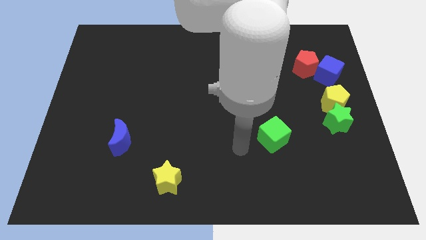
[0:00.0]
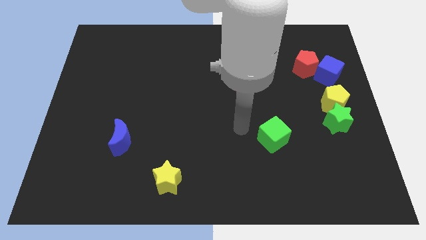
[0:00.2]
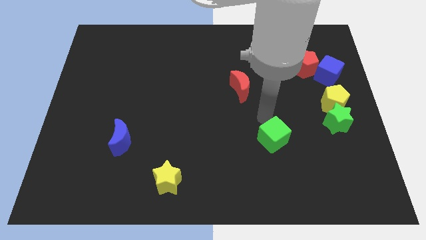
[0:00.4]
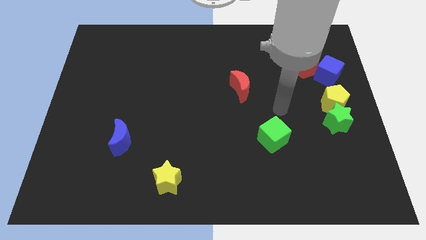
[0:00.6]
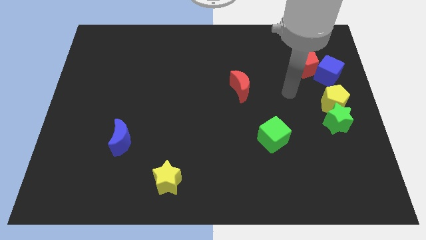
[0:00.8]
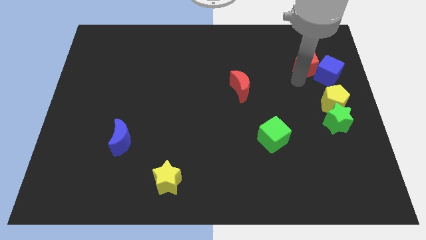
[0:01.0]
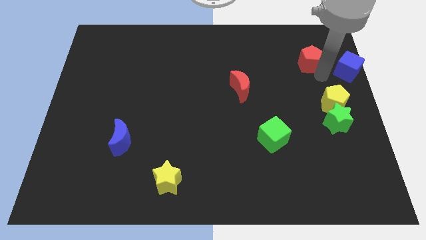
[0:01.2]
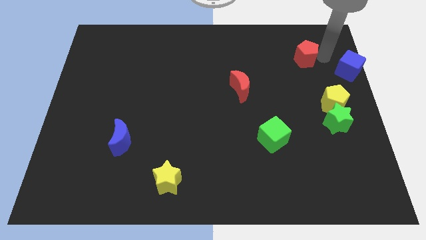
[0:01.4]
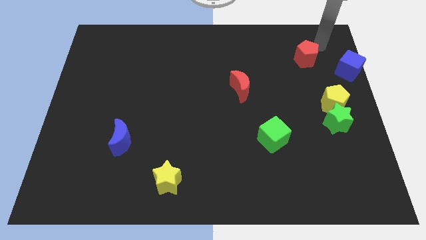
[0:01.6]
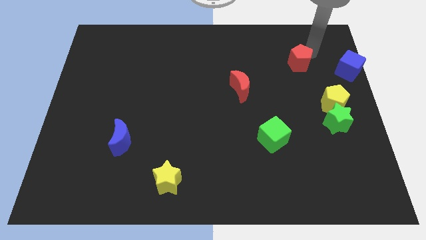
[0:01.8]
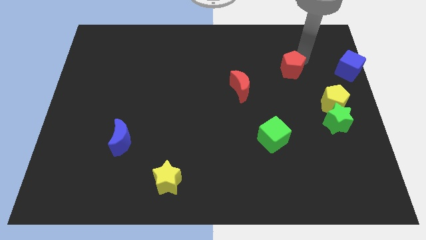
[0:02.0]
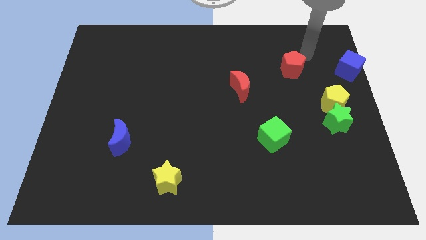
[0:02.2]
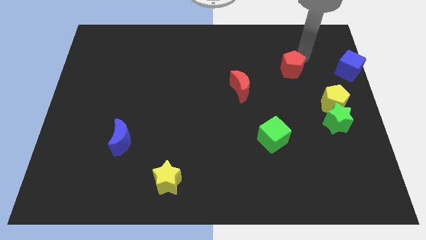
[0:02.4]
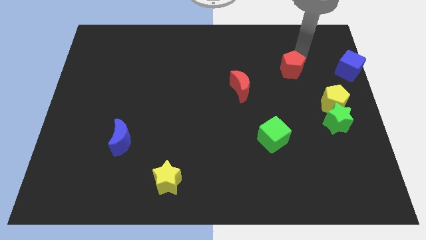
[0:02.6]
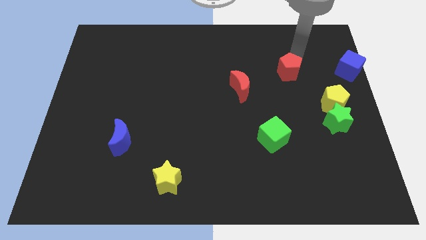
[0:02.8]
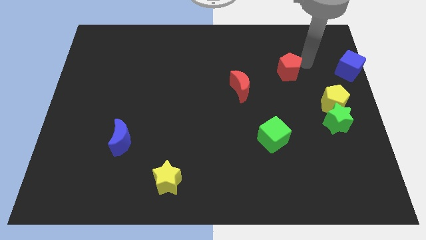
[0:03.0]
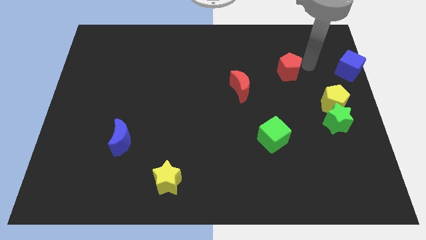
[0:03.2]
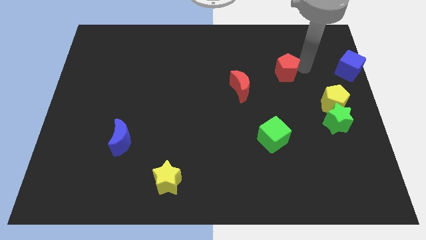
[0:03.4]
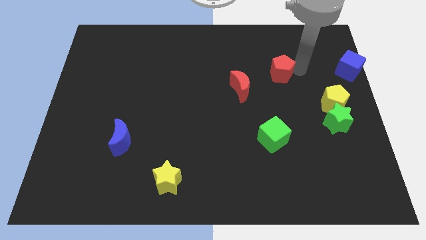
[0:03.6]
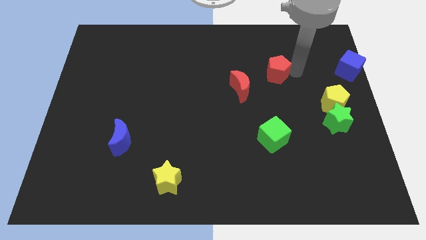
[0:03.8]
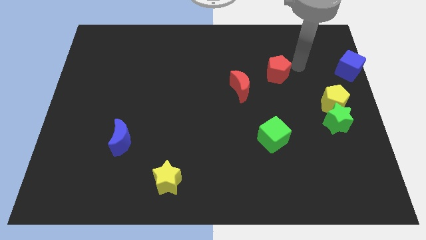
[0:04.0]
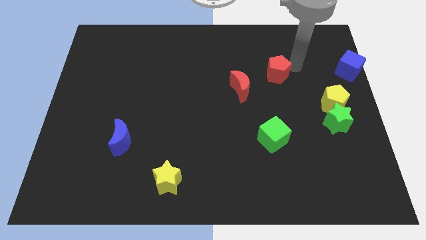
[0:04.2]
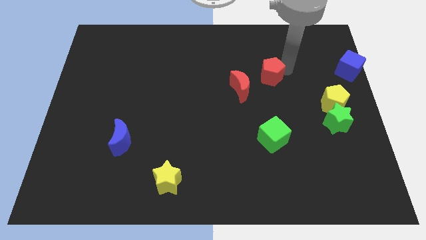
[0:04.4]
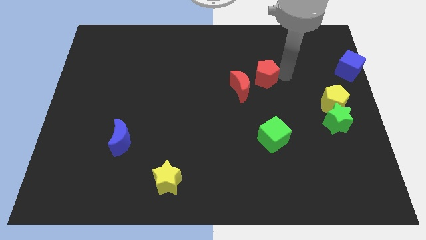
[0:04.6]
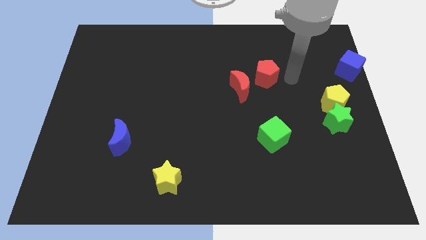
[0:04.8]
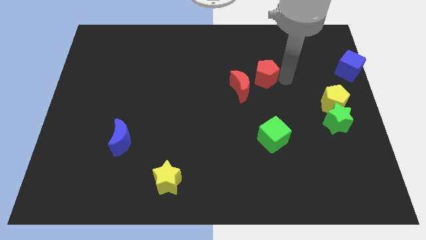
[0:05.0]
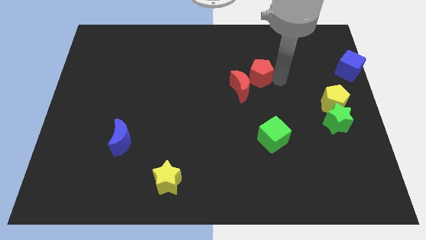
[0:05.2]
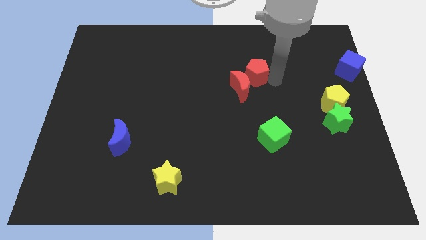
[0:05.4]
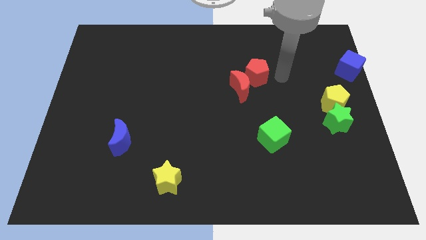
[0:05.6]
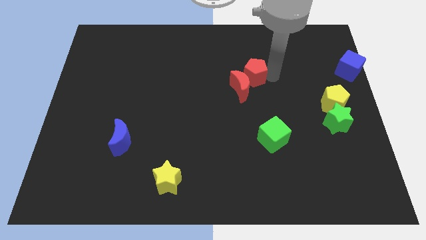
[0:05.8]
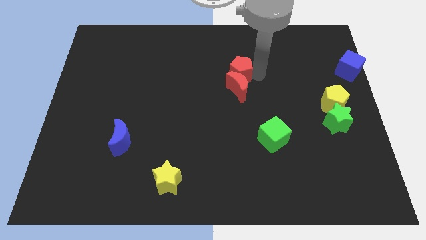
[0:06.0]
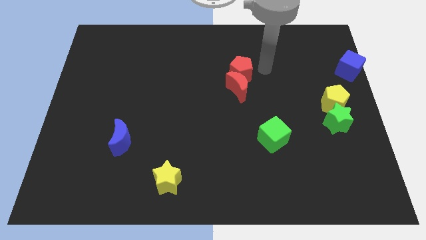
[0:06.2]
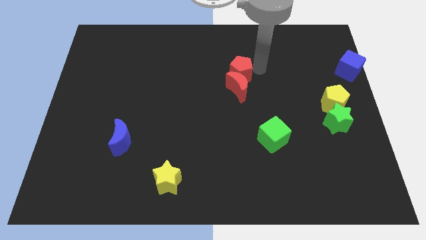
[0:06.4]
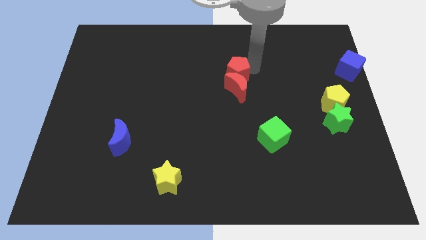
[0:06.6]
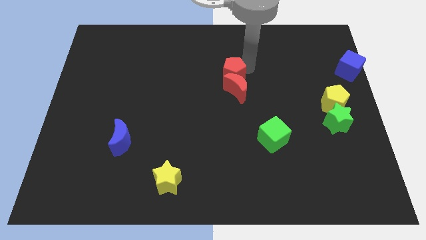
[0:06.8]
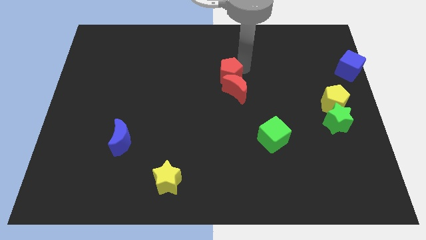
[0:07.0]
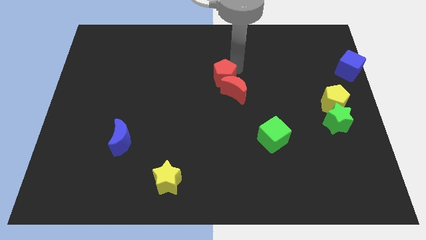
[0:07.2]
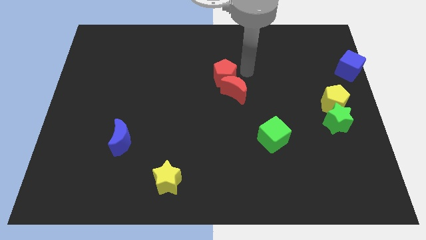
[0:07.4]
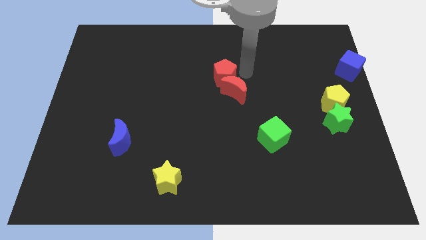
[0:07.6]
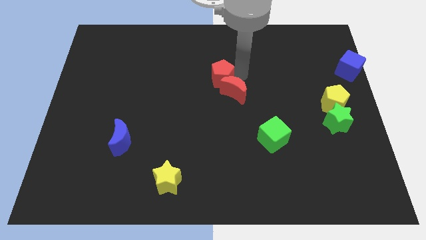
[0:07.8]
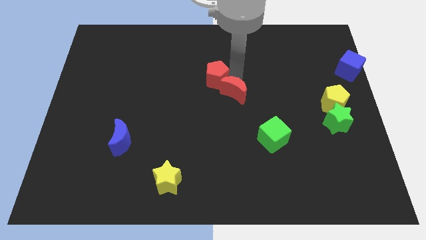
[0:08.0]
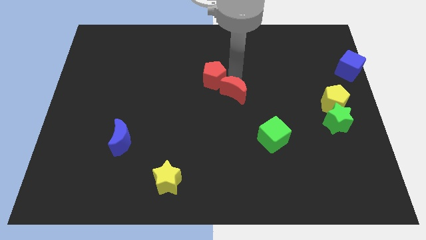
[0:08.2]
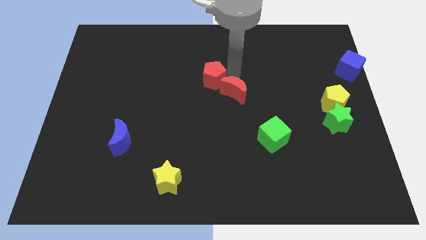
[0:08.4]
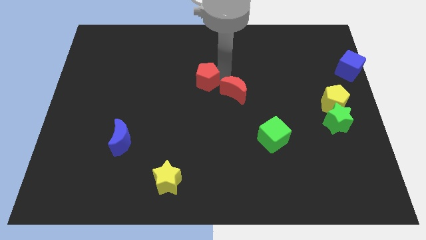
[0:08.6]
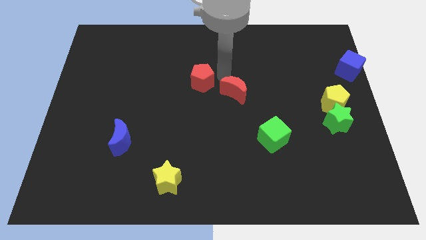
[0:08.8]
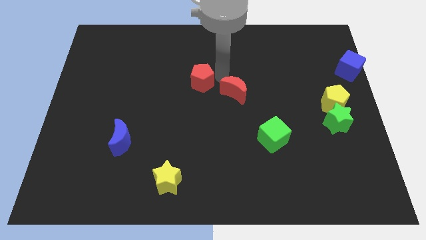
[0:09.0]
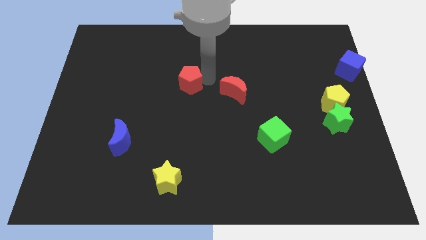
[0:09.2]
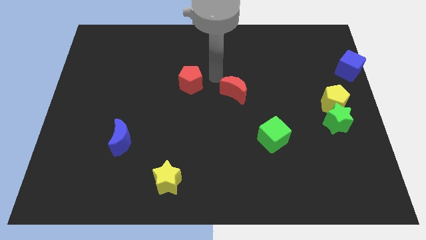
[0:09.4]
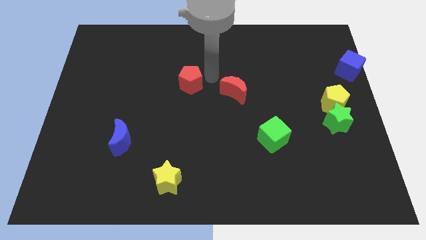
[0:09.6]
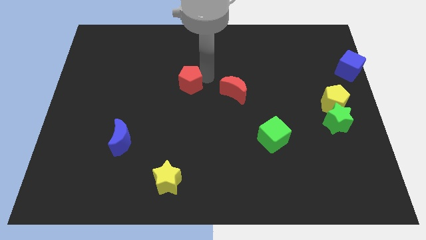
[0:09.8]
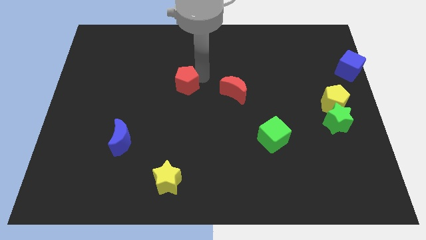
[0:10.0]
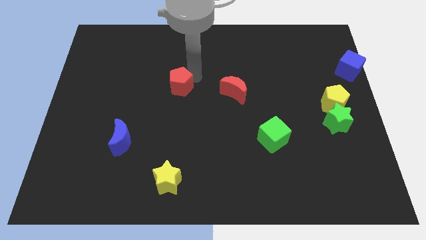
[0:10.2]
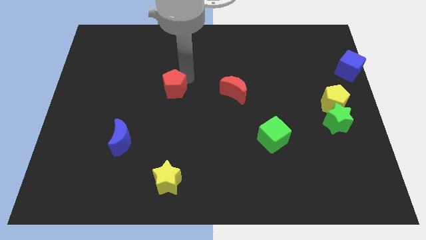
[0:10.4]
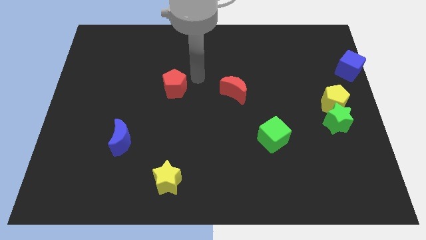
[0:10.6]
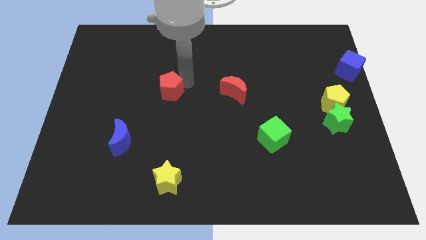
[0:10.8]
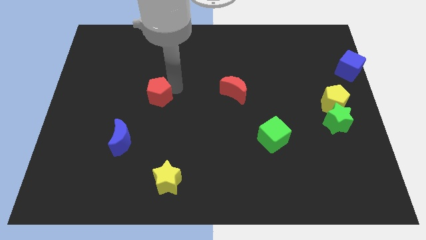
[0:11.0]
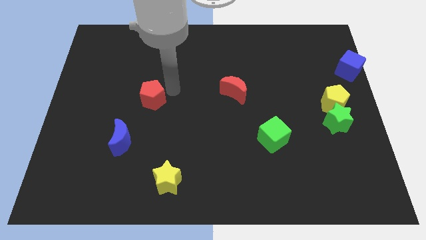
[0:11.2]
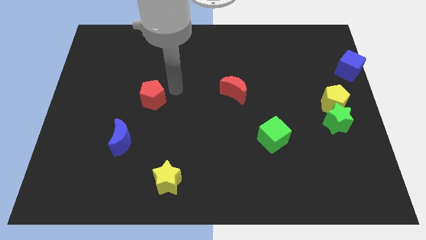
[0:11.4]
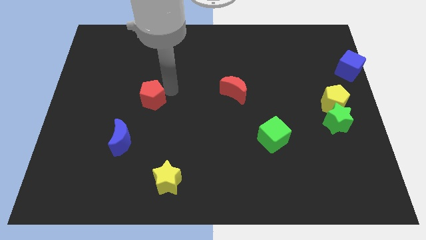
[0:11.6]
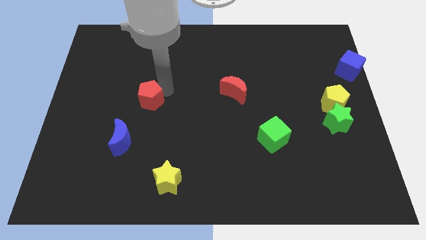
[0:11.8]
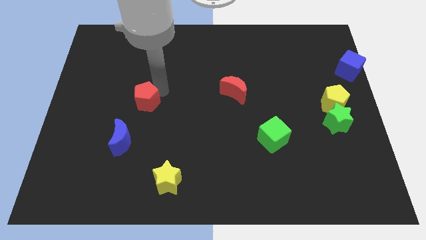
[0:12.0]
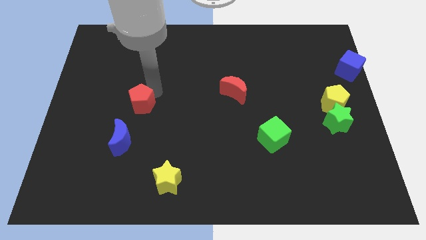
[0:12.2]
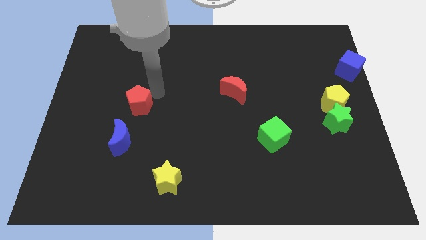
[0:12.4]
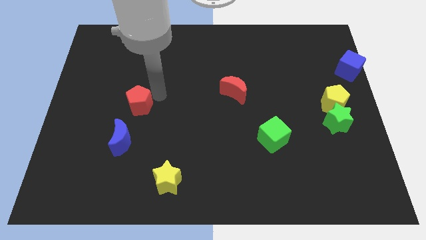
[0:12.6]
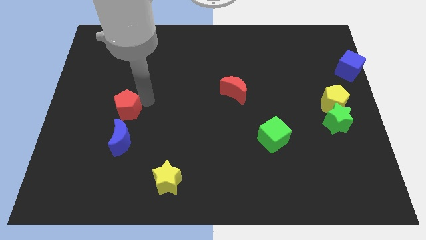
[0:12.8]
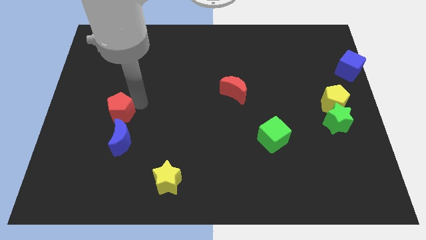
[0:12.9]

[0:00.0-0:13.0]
put the red pentagon diagonally up and to the left of the blue moon

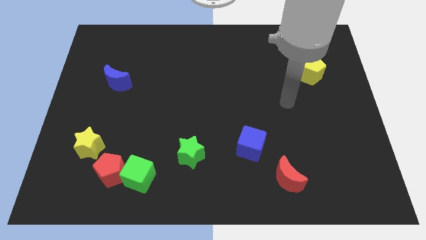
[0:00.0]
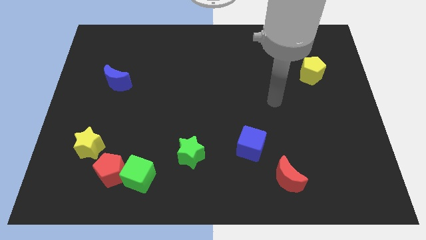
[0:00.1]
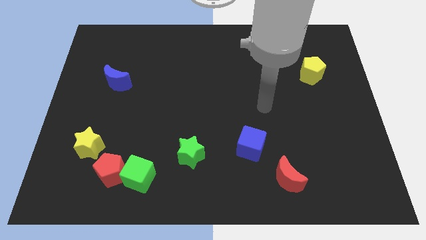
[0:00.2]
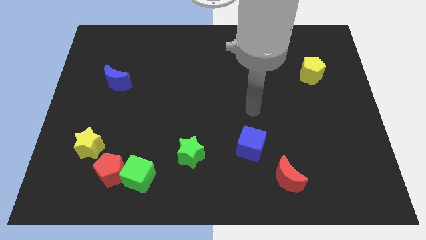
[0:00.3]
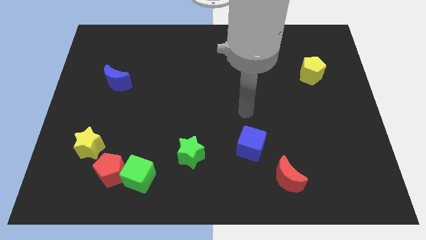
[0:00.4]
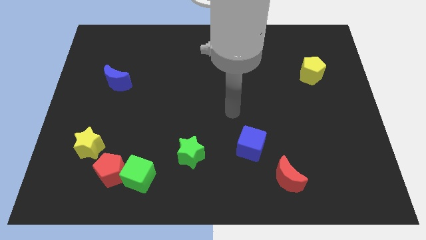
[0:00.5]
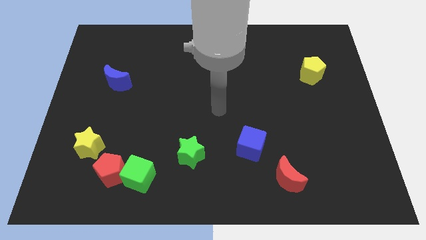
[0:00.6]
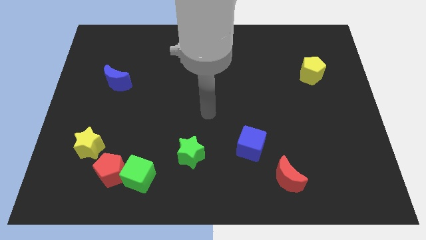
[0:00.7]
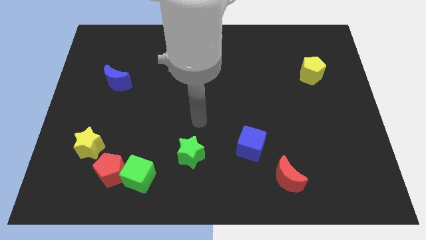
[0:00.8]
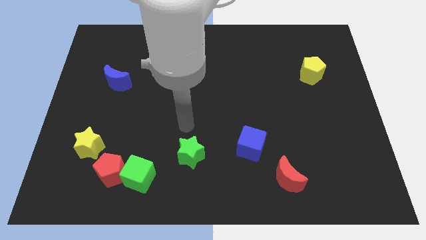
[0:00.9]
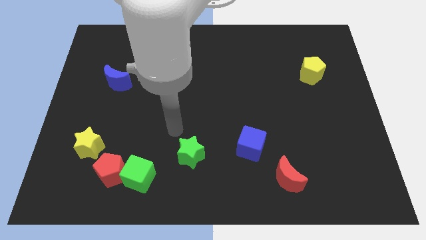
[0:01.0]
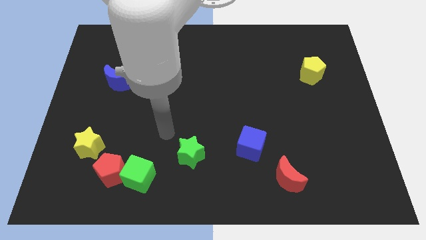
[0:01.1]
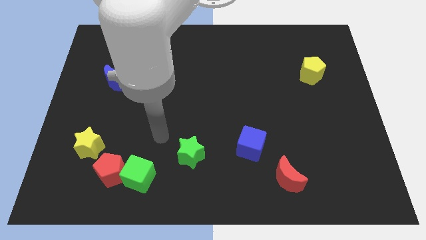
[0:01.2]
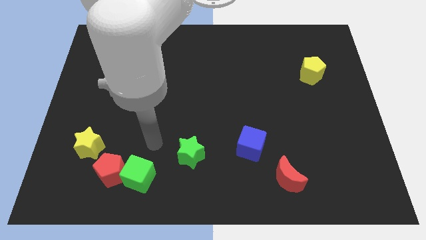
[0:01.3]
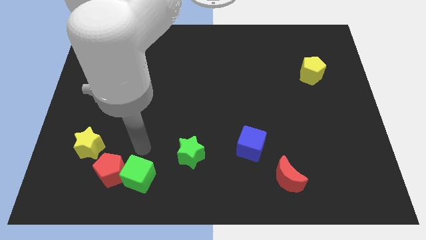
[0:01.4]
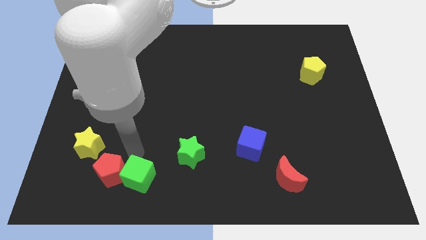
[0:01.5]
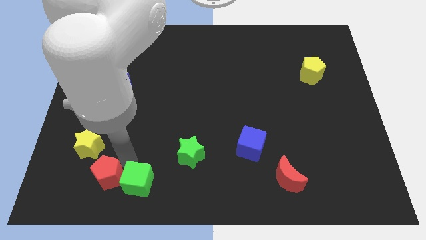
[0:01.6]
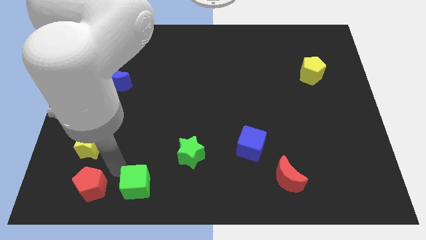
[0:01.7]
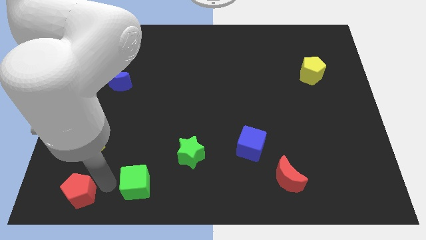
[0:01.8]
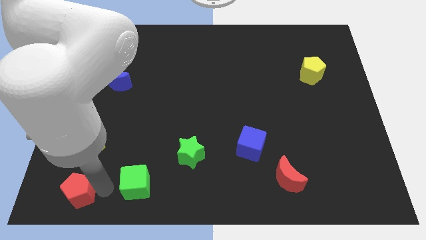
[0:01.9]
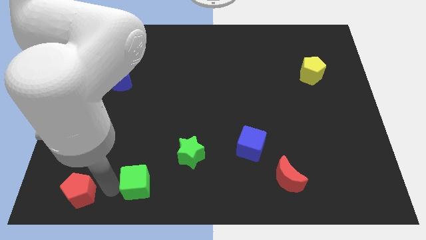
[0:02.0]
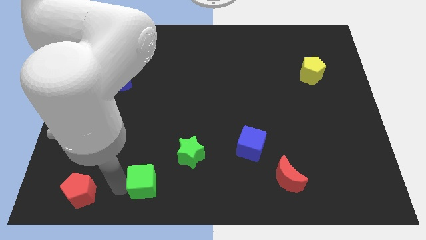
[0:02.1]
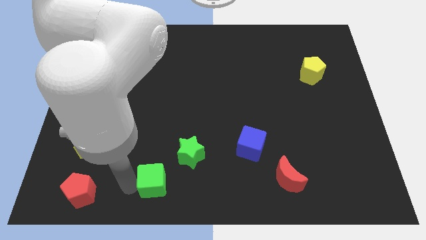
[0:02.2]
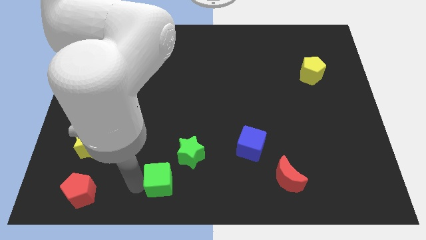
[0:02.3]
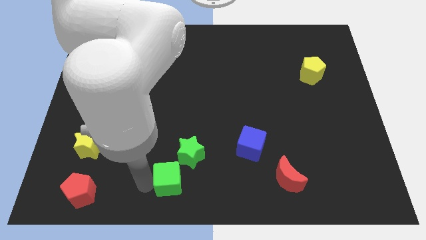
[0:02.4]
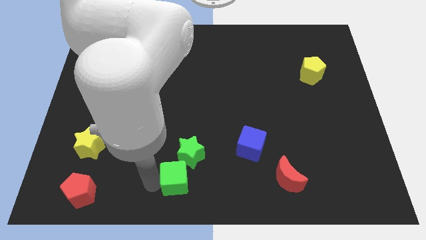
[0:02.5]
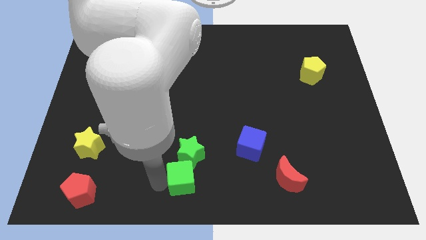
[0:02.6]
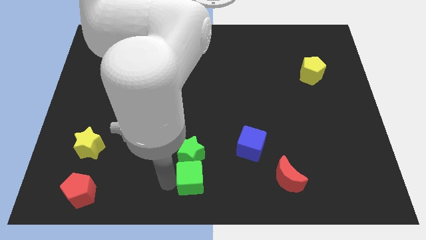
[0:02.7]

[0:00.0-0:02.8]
put the green cube to the bottom right side of the green star
